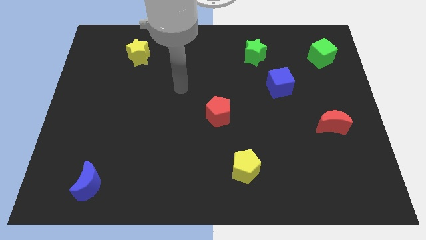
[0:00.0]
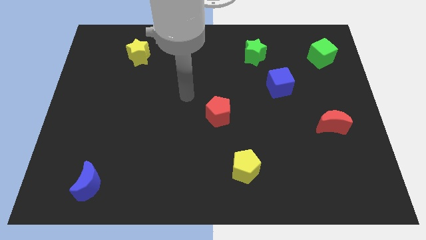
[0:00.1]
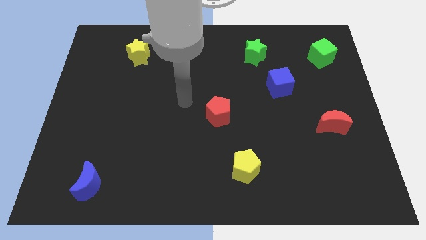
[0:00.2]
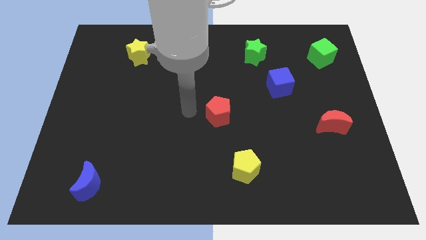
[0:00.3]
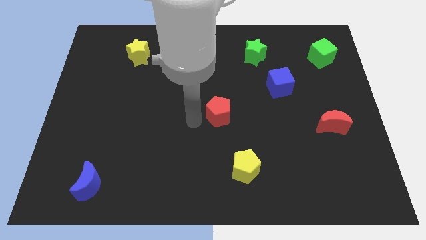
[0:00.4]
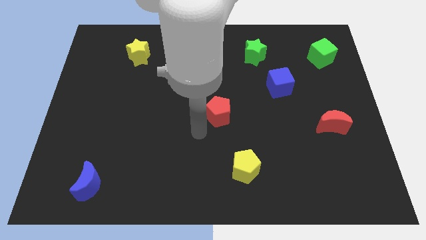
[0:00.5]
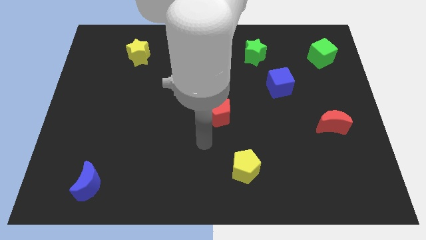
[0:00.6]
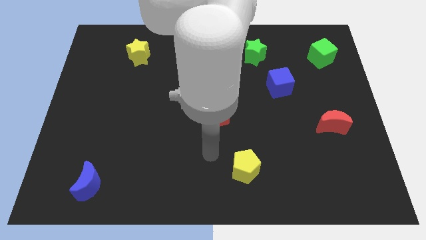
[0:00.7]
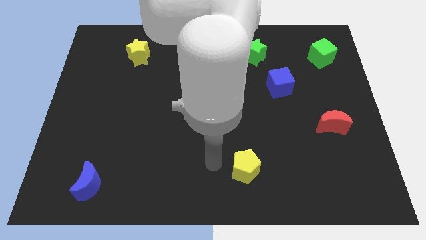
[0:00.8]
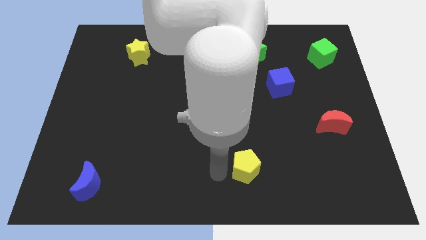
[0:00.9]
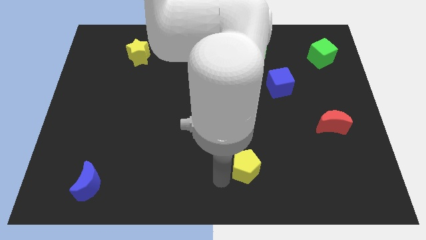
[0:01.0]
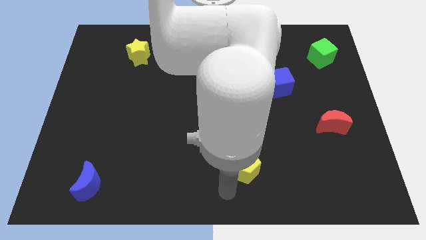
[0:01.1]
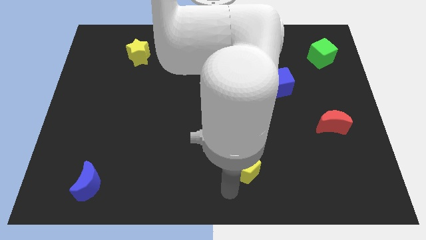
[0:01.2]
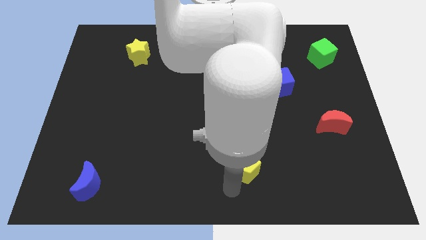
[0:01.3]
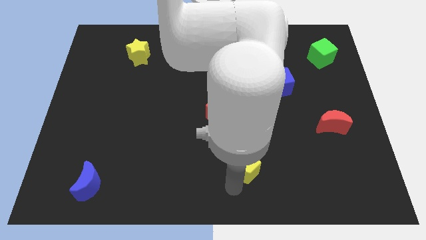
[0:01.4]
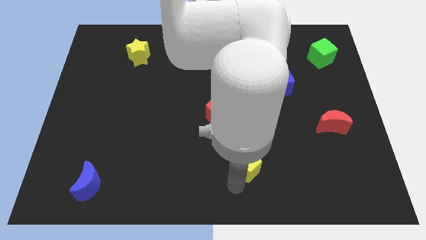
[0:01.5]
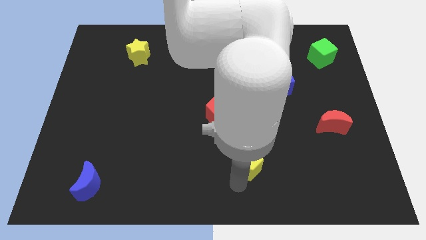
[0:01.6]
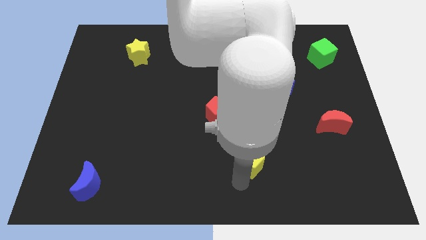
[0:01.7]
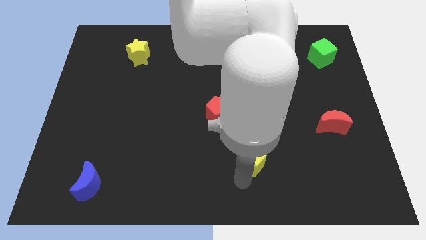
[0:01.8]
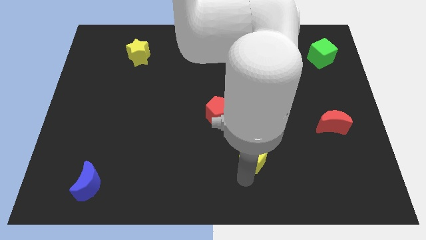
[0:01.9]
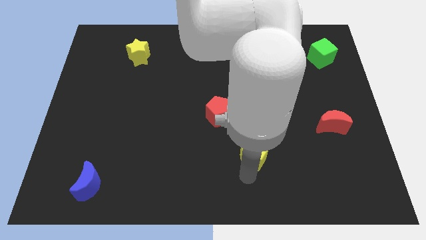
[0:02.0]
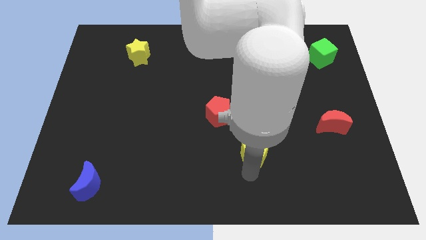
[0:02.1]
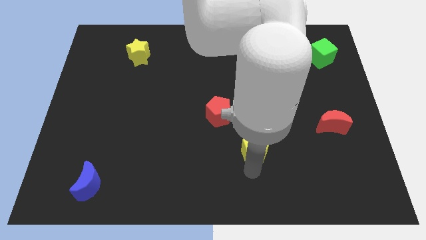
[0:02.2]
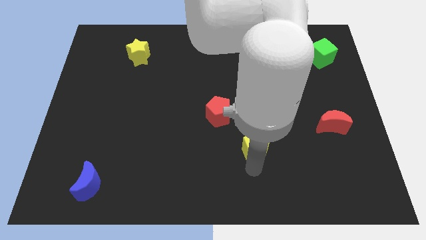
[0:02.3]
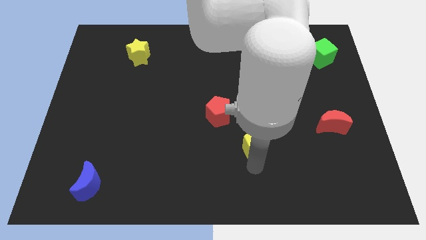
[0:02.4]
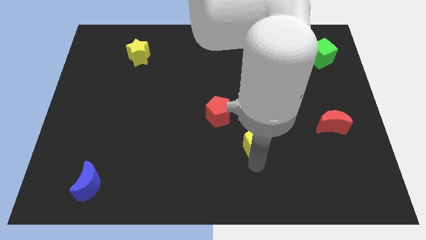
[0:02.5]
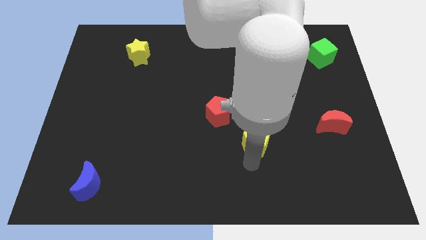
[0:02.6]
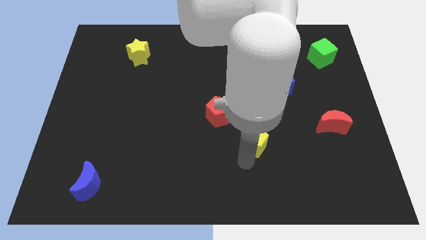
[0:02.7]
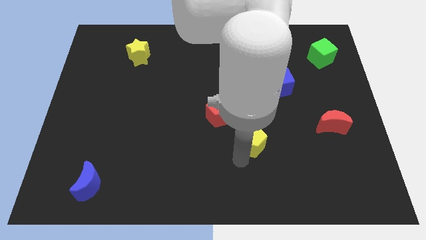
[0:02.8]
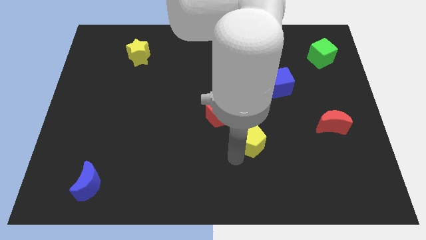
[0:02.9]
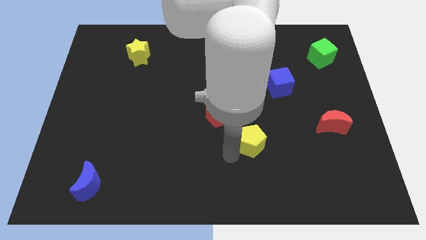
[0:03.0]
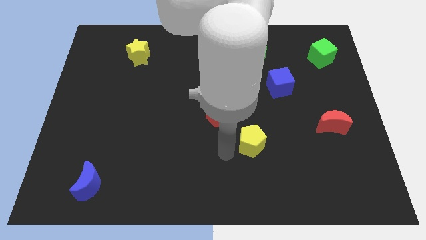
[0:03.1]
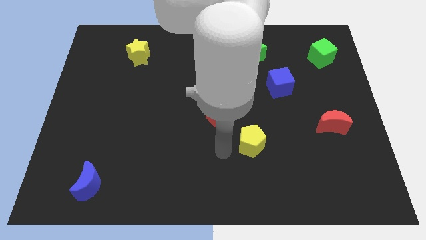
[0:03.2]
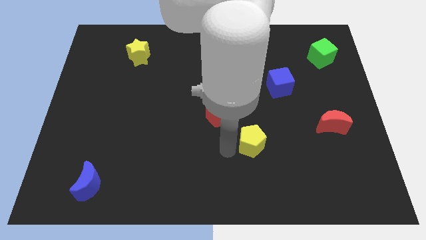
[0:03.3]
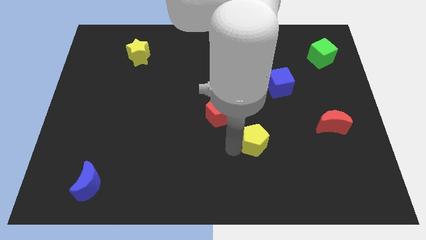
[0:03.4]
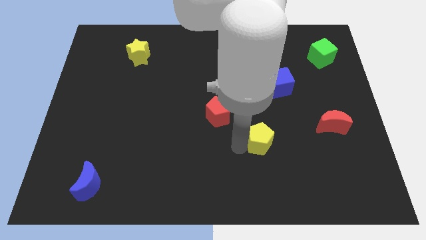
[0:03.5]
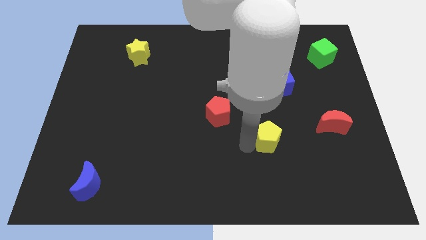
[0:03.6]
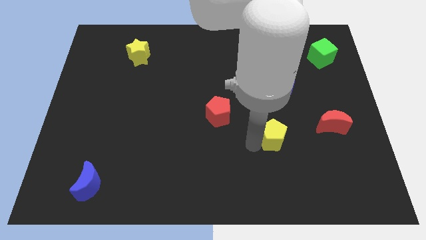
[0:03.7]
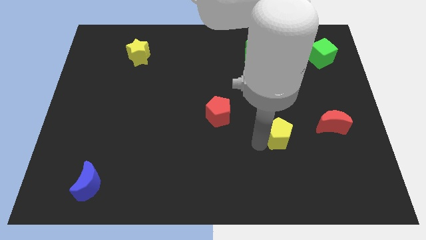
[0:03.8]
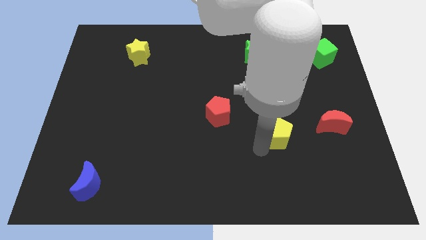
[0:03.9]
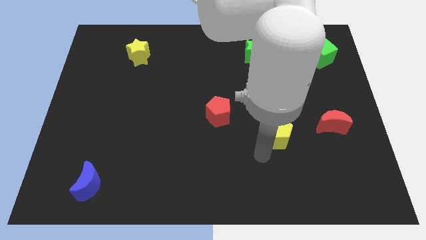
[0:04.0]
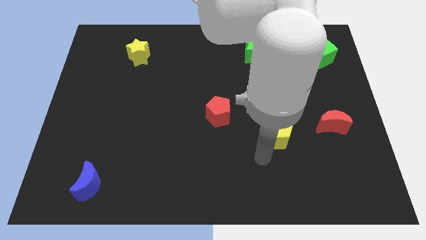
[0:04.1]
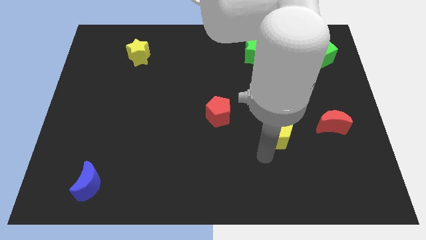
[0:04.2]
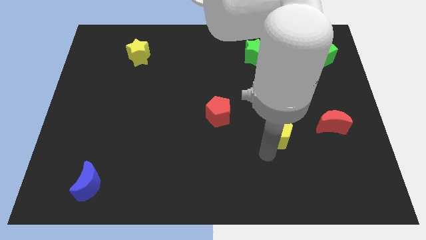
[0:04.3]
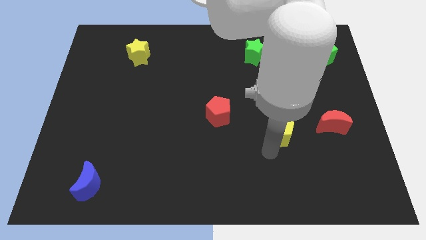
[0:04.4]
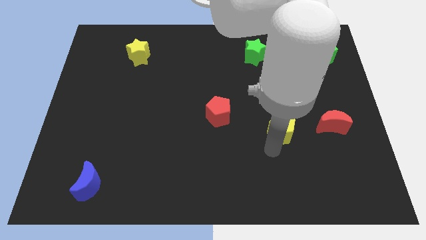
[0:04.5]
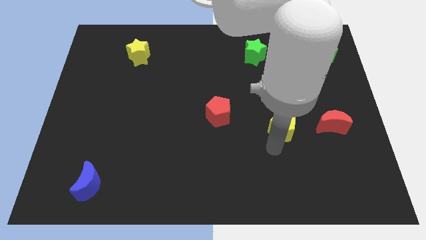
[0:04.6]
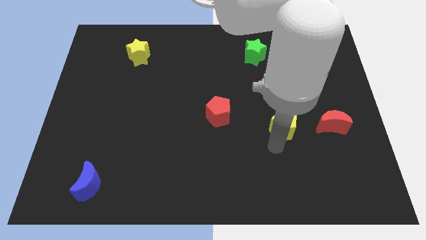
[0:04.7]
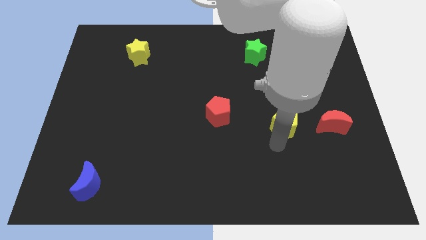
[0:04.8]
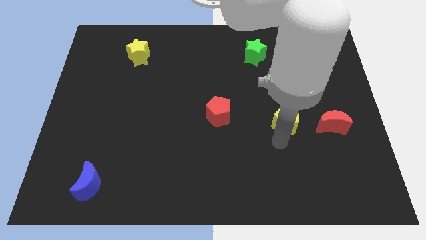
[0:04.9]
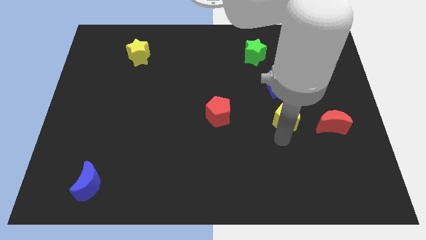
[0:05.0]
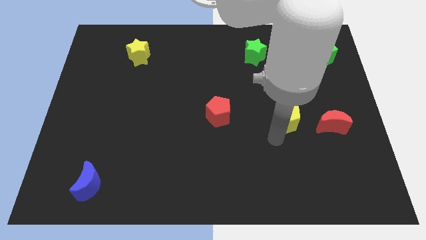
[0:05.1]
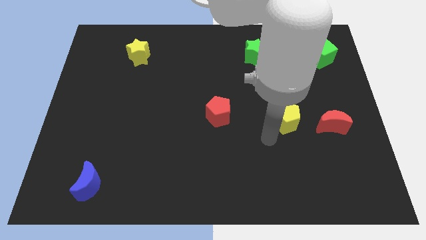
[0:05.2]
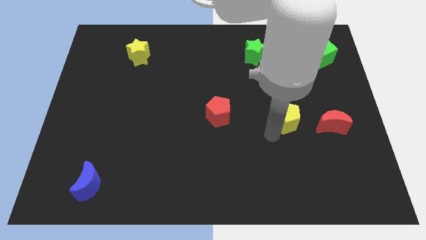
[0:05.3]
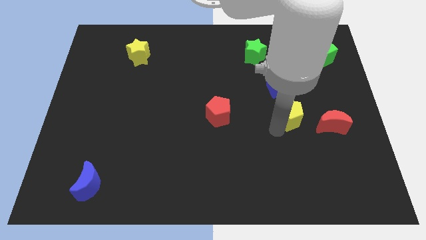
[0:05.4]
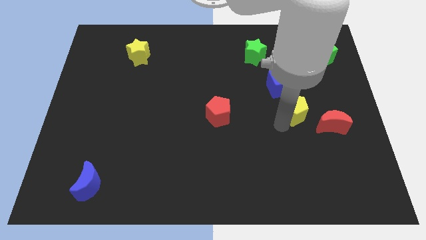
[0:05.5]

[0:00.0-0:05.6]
slide the yellow pentagon to the bottom right side of the blue cube

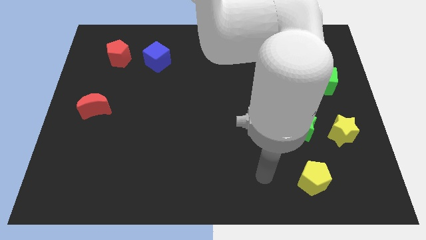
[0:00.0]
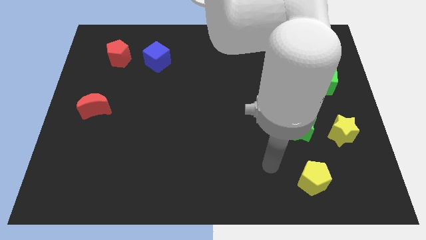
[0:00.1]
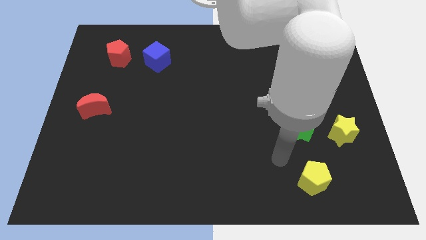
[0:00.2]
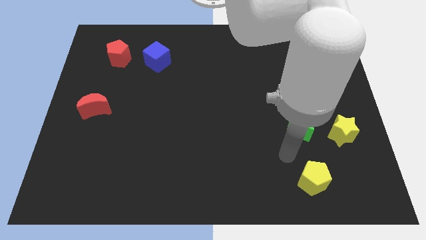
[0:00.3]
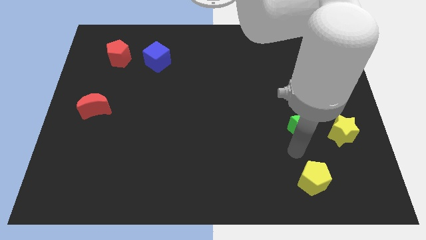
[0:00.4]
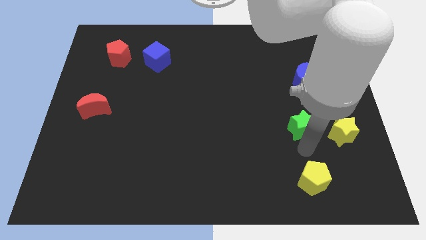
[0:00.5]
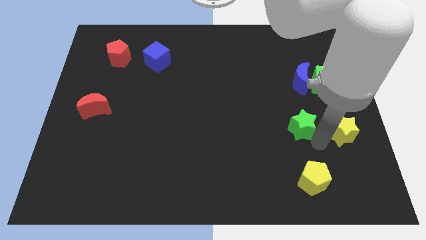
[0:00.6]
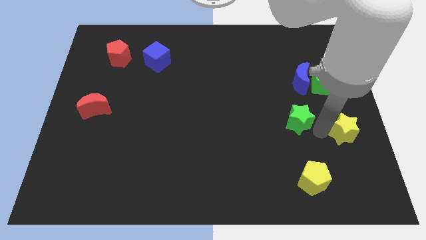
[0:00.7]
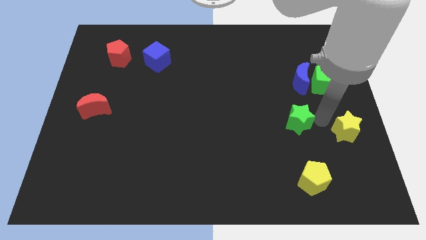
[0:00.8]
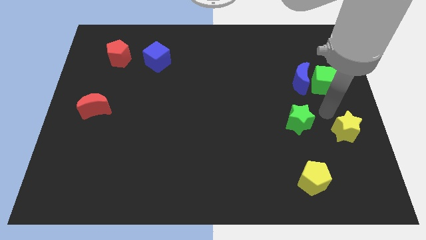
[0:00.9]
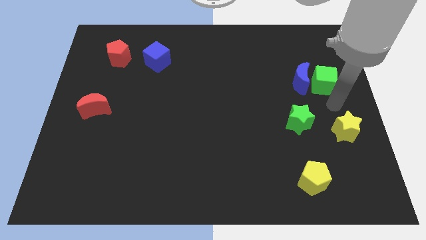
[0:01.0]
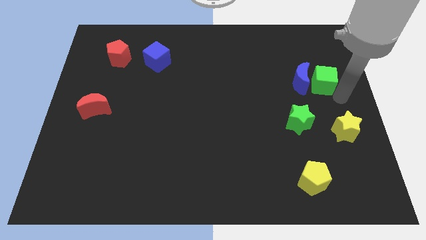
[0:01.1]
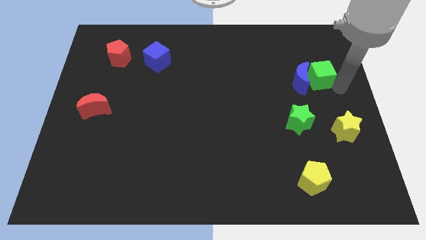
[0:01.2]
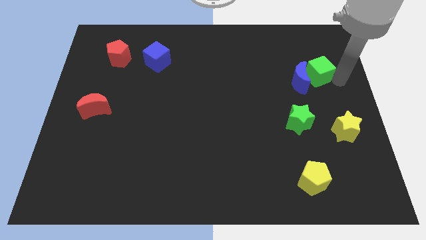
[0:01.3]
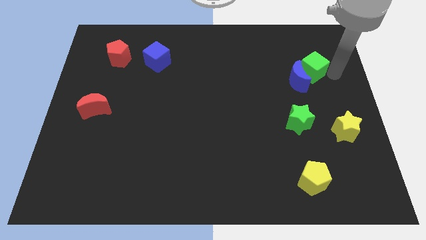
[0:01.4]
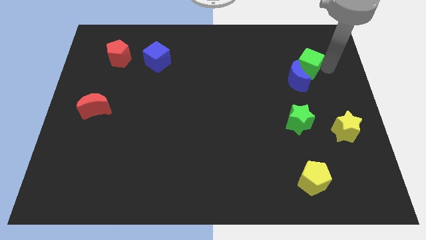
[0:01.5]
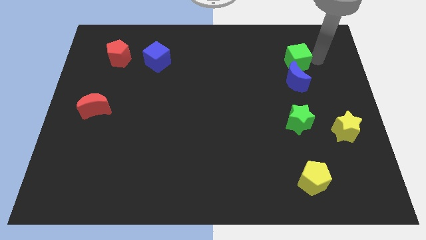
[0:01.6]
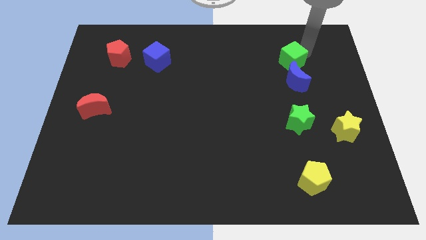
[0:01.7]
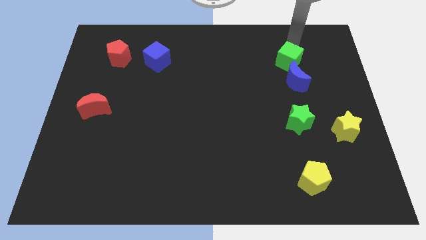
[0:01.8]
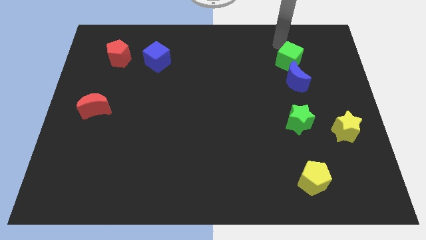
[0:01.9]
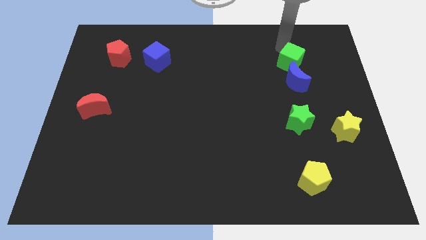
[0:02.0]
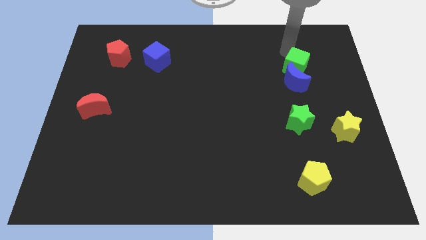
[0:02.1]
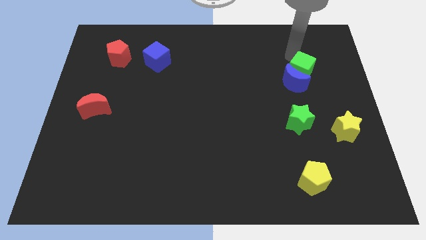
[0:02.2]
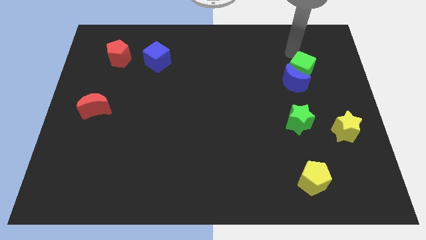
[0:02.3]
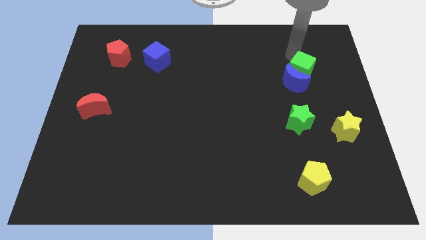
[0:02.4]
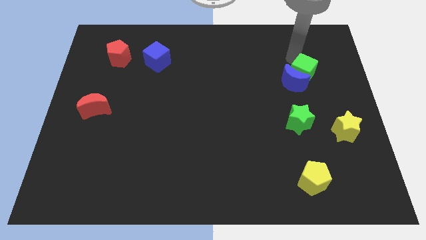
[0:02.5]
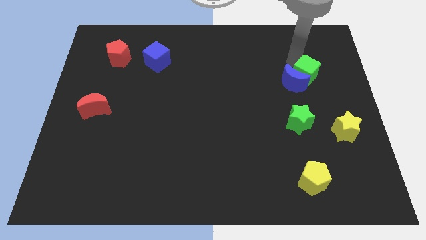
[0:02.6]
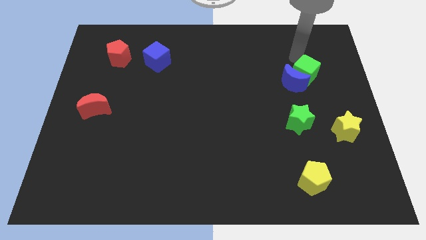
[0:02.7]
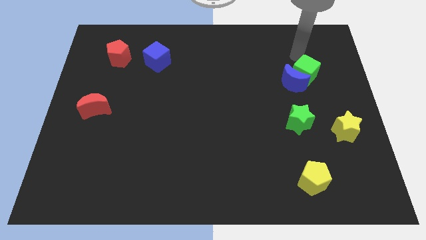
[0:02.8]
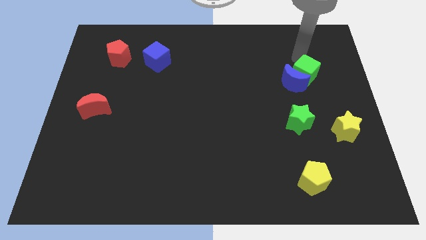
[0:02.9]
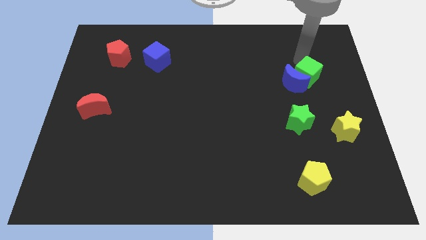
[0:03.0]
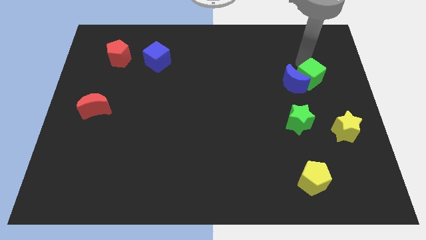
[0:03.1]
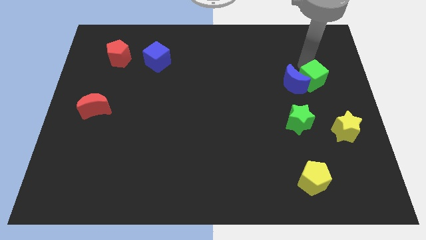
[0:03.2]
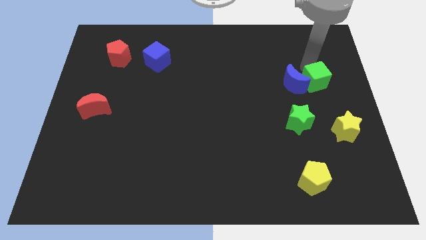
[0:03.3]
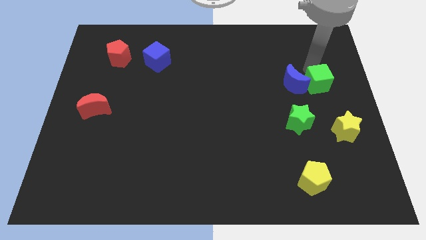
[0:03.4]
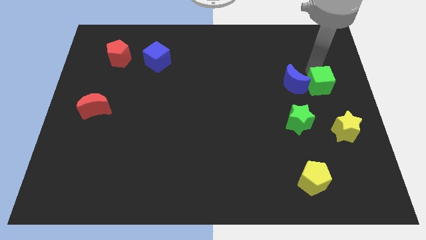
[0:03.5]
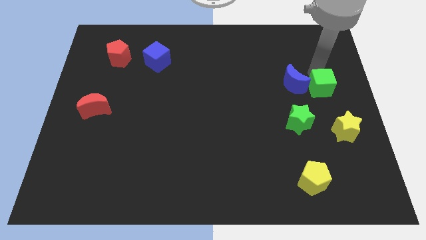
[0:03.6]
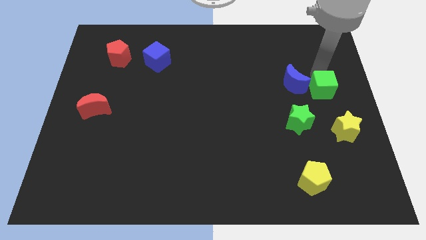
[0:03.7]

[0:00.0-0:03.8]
push the green cube to the top right of the green star
